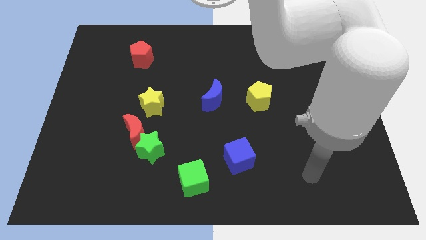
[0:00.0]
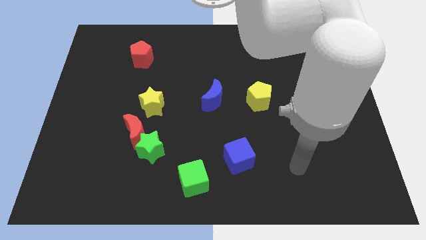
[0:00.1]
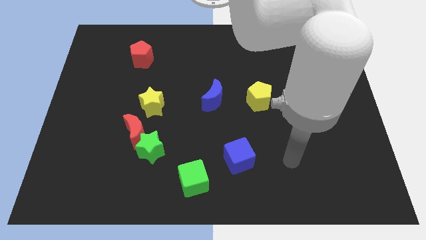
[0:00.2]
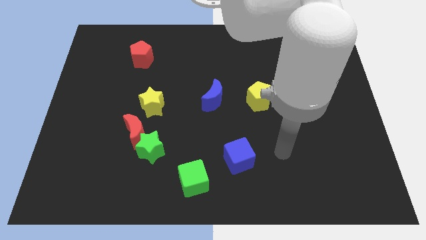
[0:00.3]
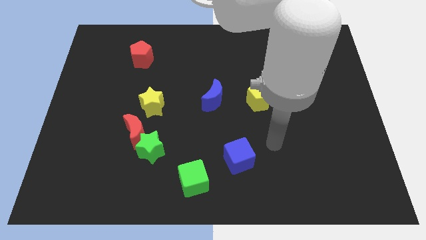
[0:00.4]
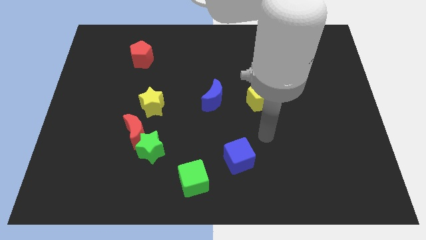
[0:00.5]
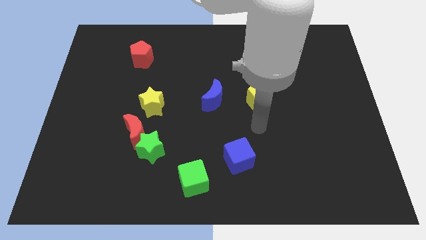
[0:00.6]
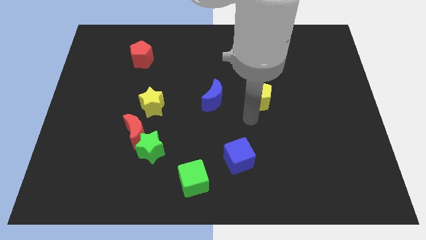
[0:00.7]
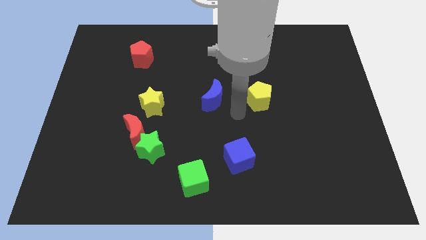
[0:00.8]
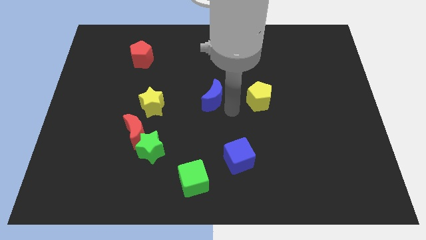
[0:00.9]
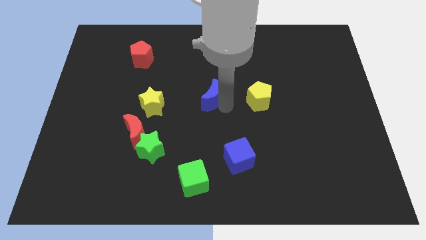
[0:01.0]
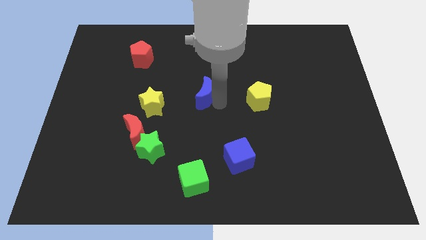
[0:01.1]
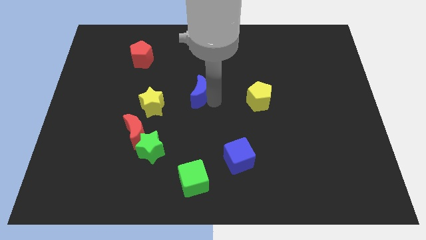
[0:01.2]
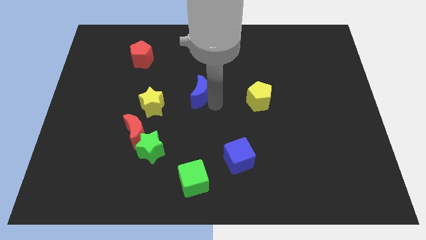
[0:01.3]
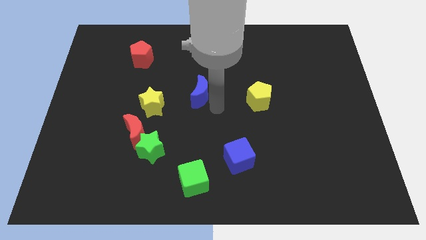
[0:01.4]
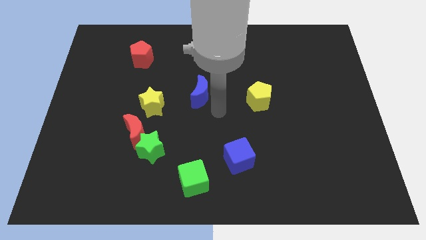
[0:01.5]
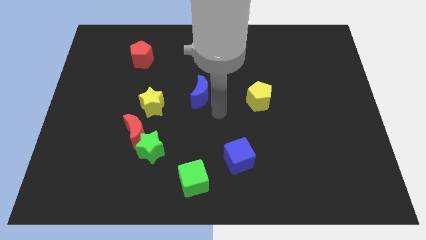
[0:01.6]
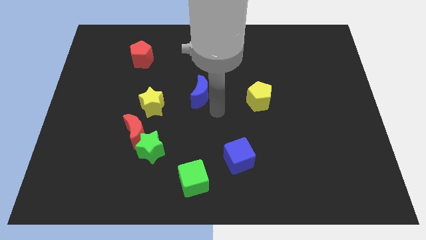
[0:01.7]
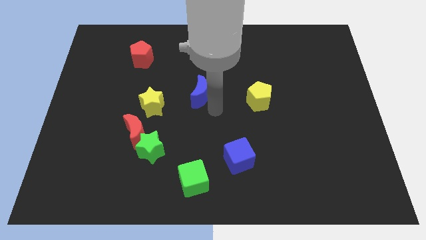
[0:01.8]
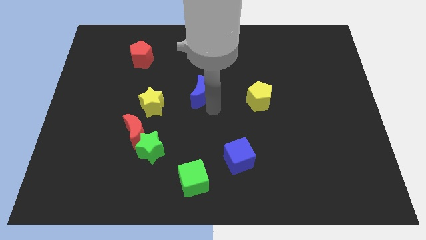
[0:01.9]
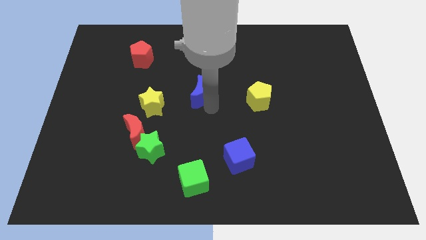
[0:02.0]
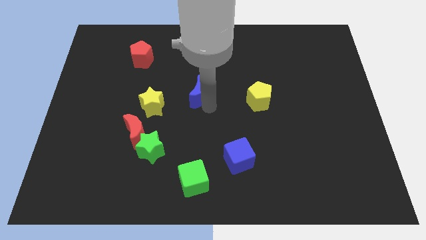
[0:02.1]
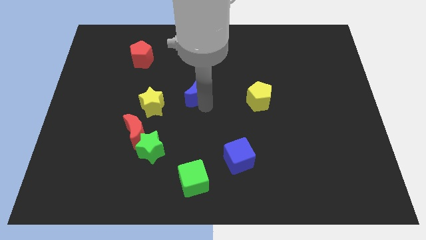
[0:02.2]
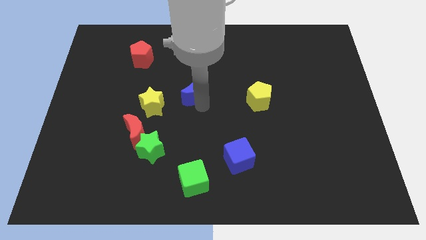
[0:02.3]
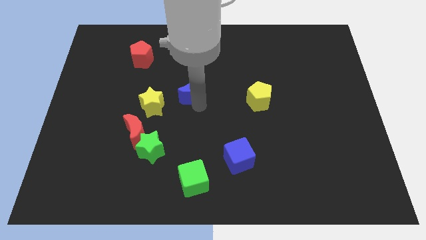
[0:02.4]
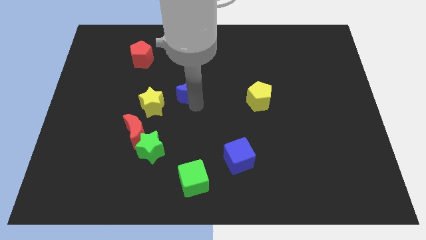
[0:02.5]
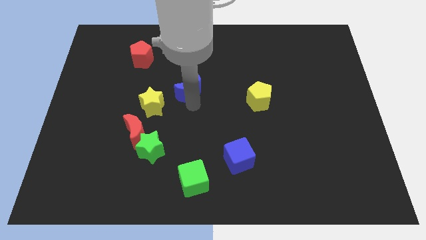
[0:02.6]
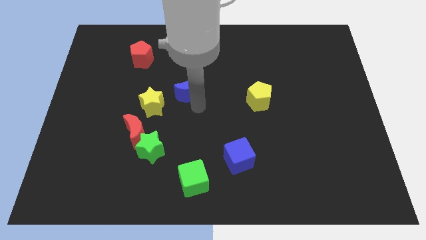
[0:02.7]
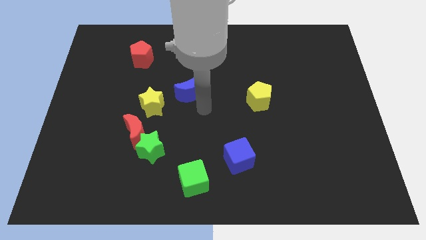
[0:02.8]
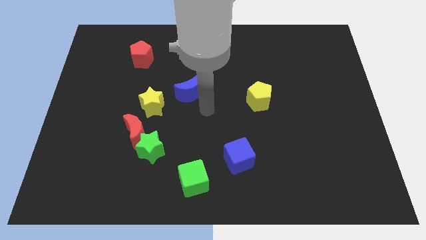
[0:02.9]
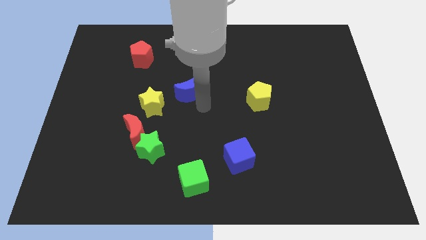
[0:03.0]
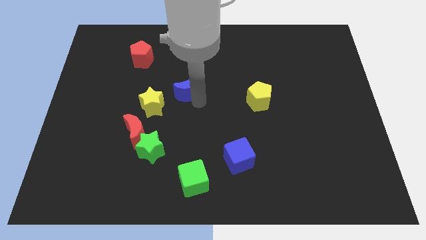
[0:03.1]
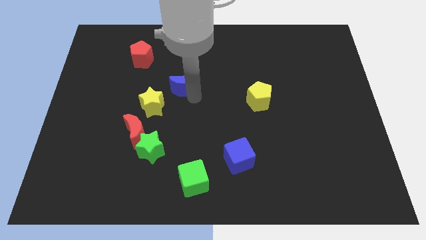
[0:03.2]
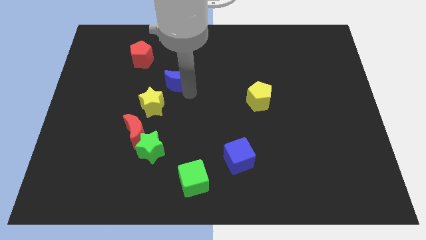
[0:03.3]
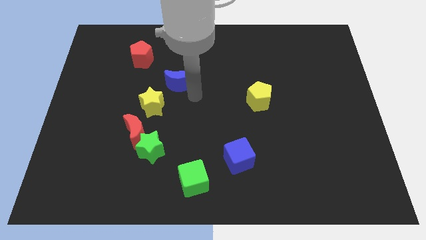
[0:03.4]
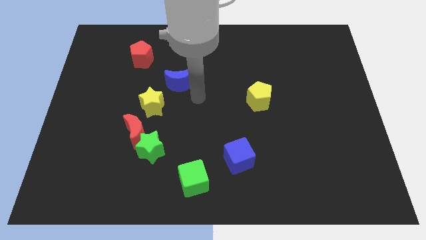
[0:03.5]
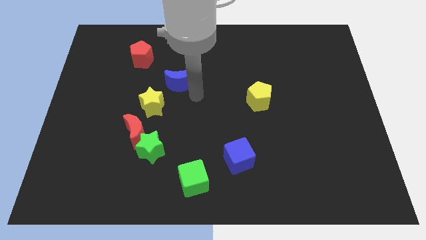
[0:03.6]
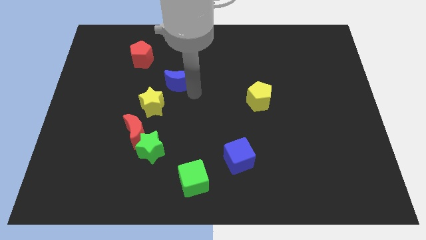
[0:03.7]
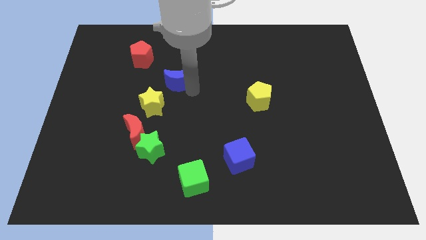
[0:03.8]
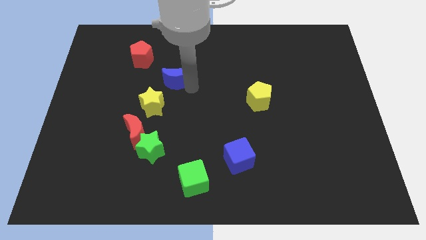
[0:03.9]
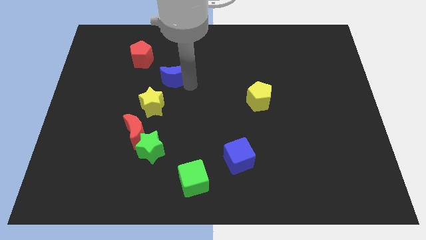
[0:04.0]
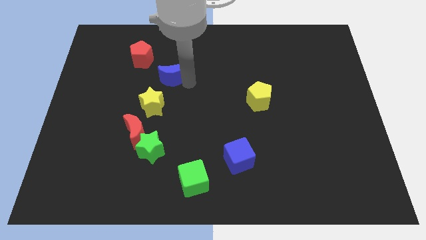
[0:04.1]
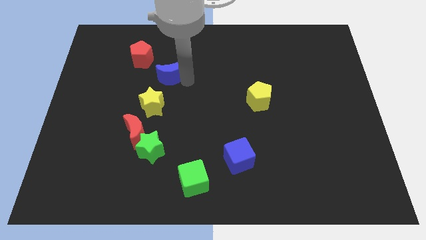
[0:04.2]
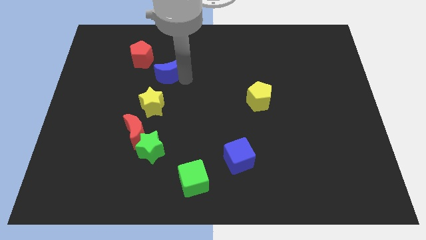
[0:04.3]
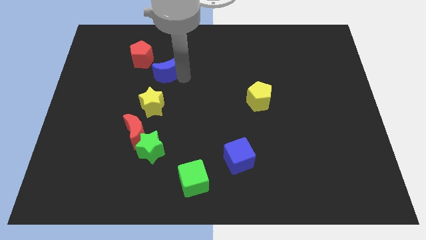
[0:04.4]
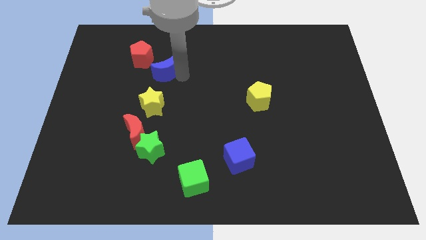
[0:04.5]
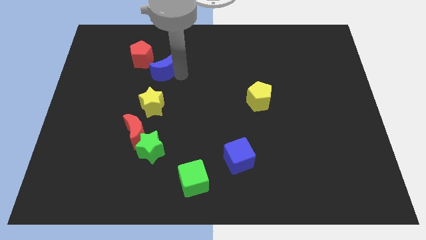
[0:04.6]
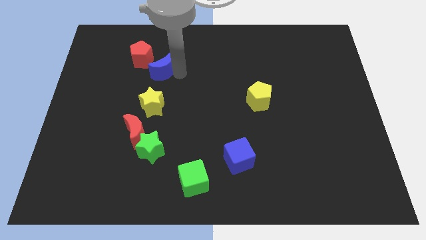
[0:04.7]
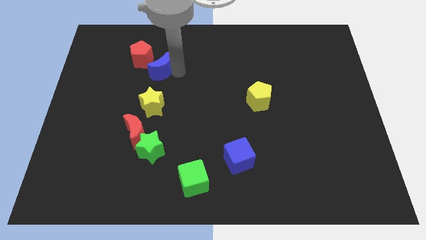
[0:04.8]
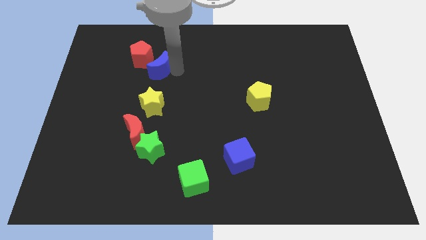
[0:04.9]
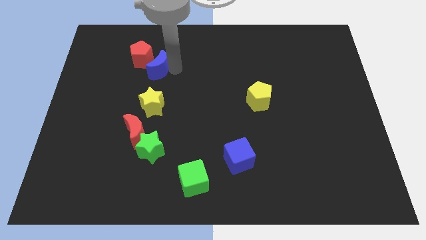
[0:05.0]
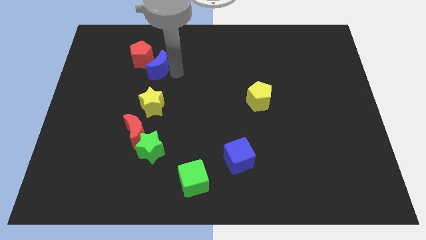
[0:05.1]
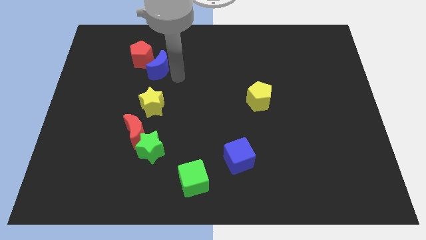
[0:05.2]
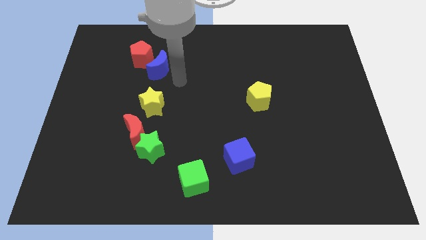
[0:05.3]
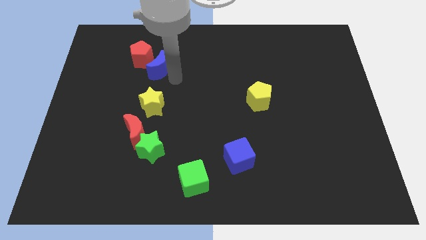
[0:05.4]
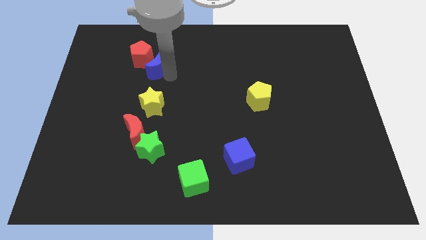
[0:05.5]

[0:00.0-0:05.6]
slide the blue moon close to the red pentagon

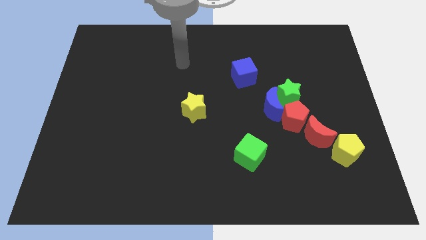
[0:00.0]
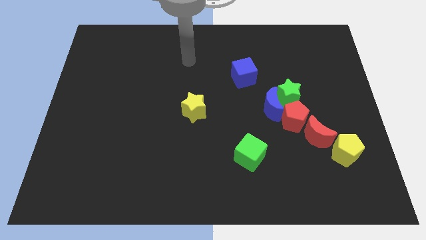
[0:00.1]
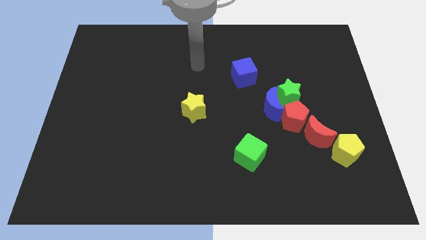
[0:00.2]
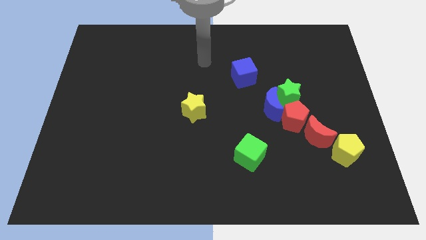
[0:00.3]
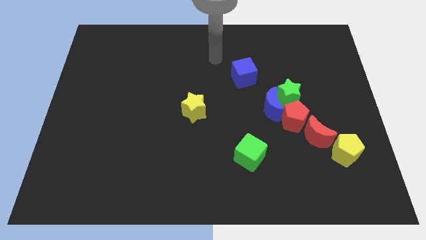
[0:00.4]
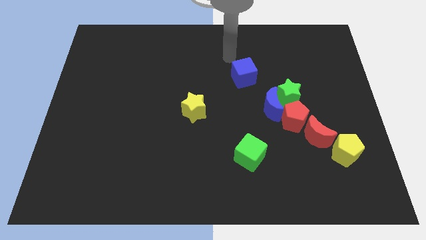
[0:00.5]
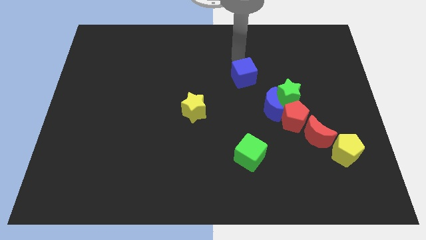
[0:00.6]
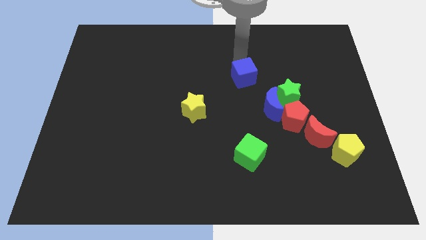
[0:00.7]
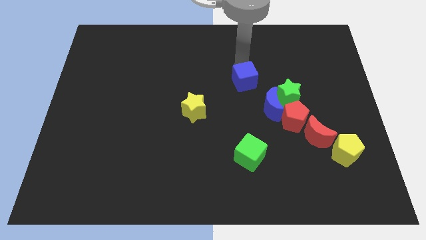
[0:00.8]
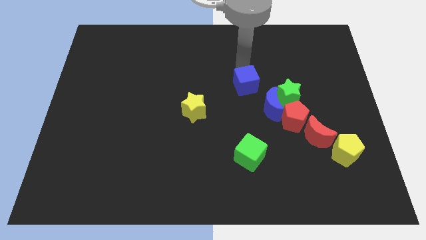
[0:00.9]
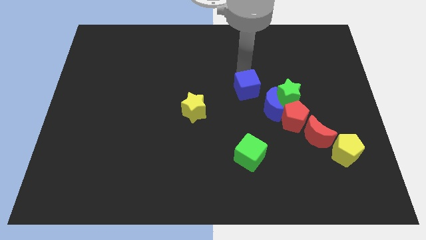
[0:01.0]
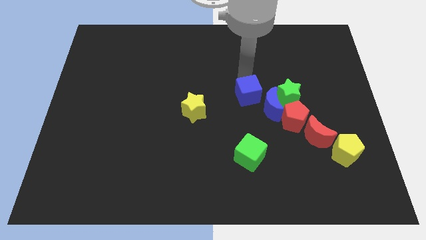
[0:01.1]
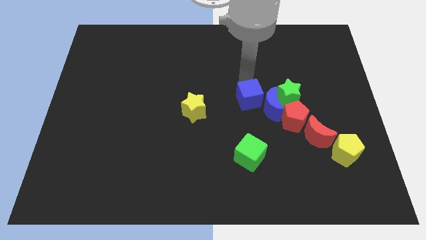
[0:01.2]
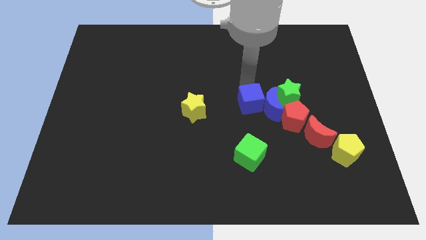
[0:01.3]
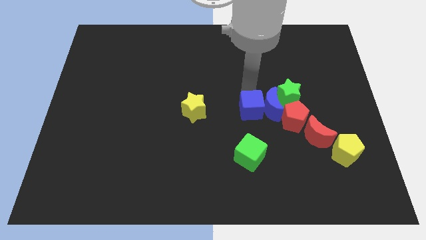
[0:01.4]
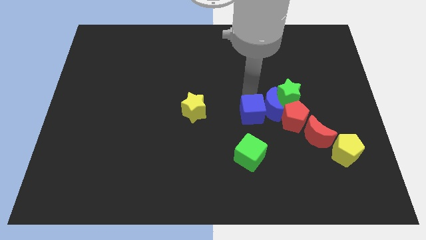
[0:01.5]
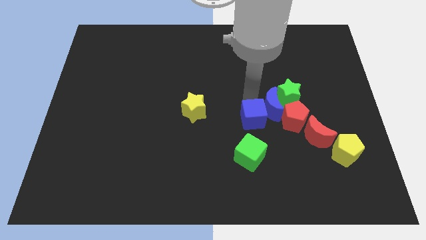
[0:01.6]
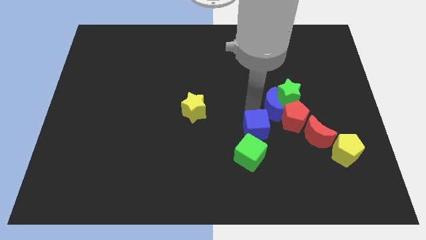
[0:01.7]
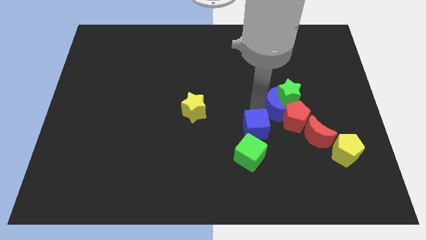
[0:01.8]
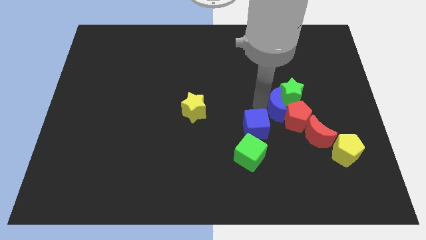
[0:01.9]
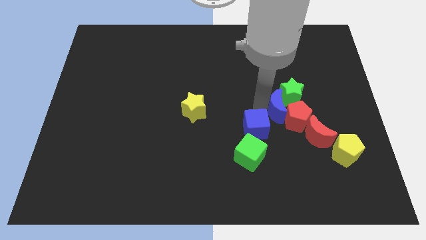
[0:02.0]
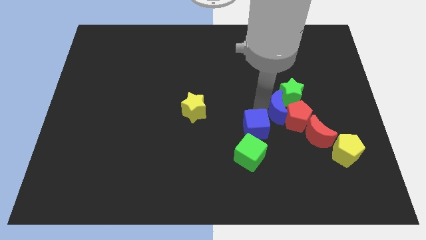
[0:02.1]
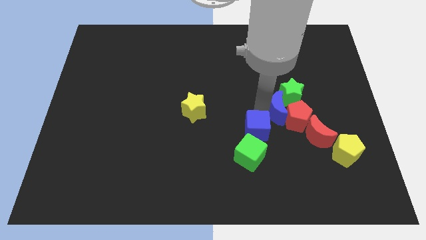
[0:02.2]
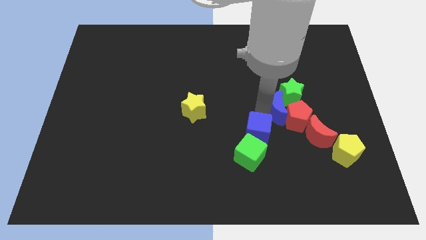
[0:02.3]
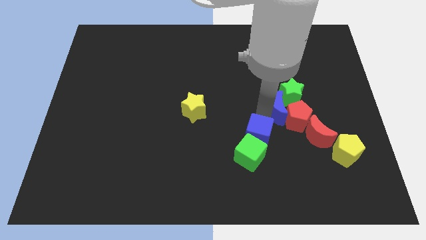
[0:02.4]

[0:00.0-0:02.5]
slide the blue cube to the green cube
